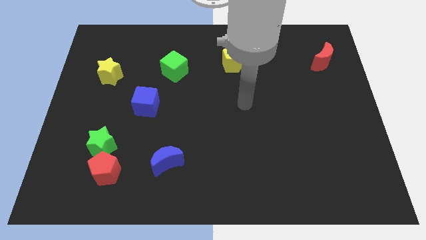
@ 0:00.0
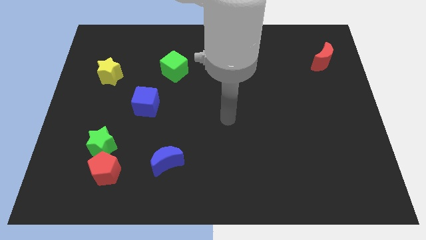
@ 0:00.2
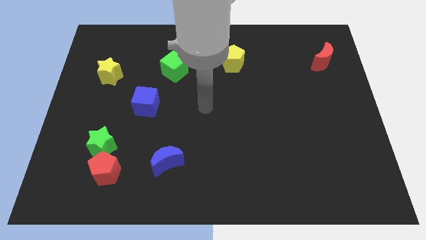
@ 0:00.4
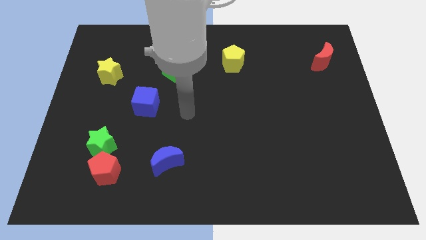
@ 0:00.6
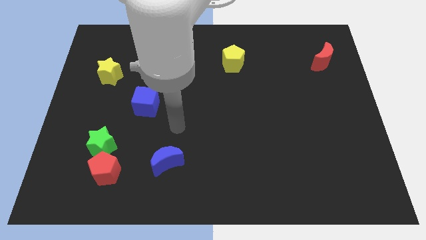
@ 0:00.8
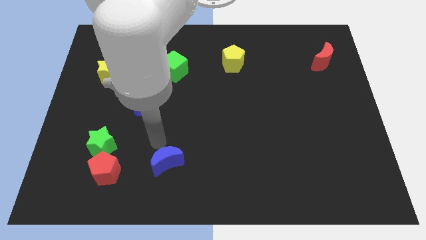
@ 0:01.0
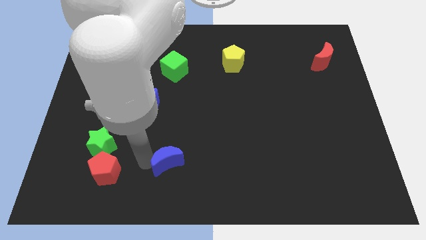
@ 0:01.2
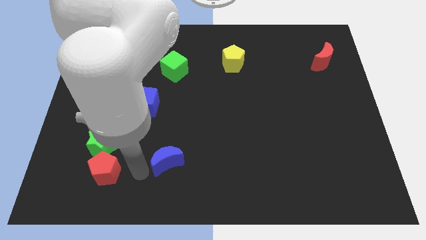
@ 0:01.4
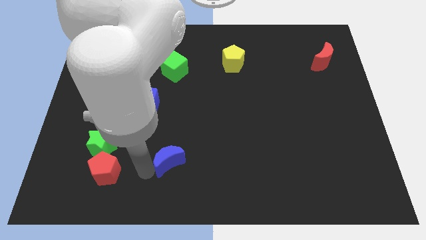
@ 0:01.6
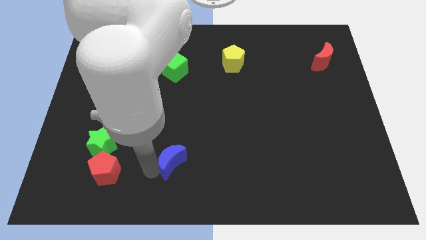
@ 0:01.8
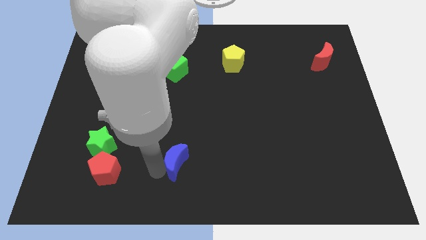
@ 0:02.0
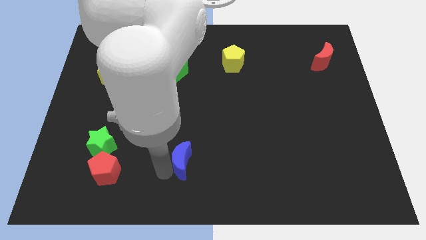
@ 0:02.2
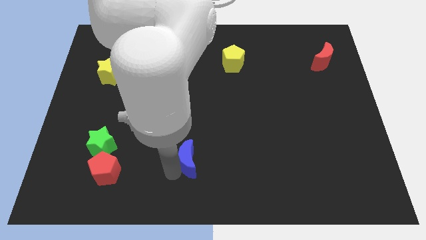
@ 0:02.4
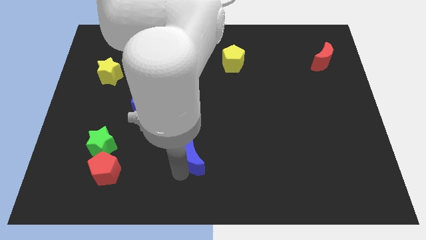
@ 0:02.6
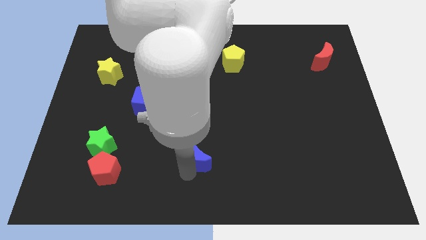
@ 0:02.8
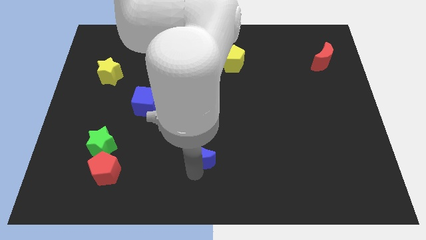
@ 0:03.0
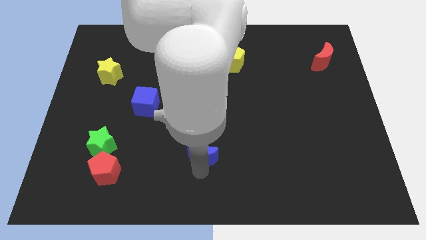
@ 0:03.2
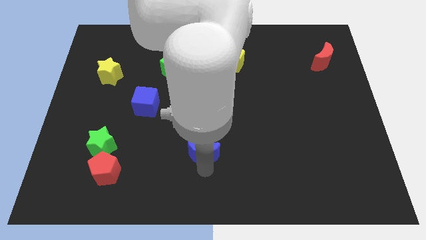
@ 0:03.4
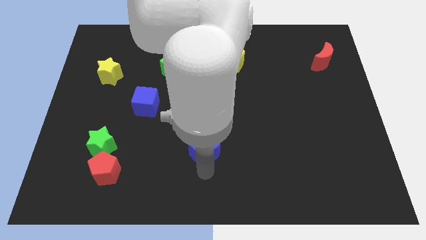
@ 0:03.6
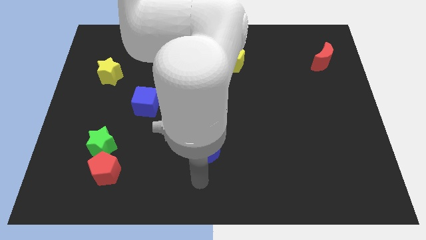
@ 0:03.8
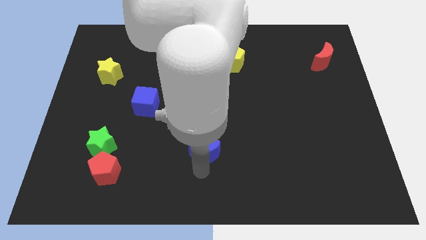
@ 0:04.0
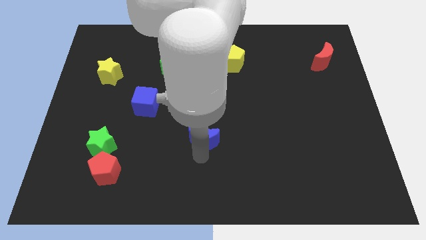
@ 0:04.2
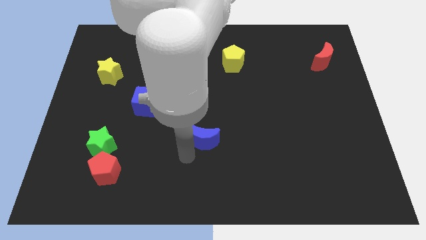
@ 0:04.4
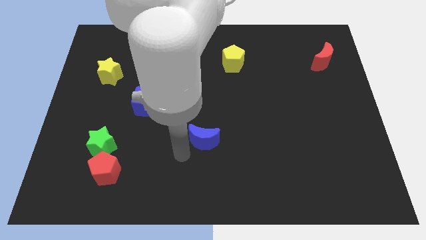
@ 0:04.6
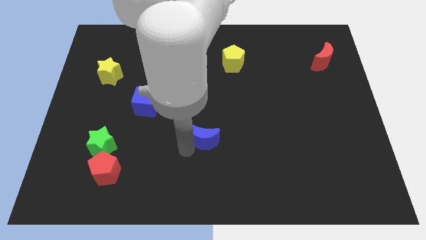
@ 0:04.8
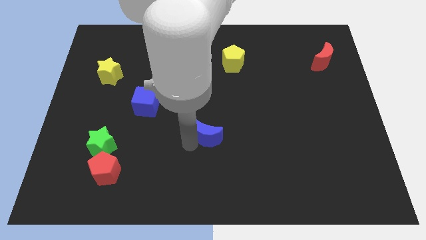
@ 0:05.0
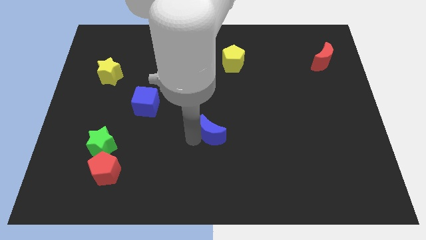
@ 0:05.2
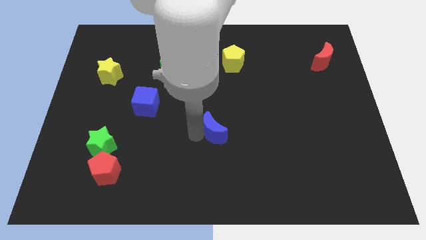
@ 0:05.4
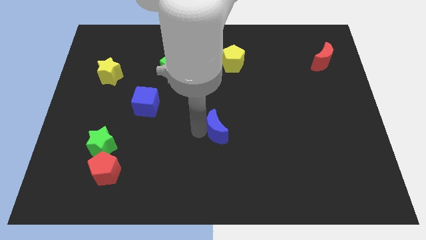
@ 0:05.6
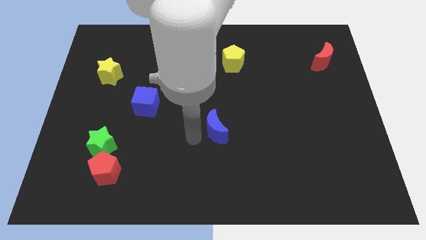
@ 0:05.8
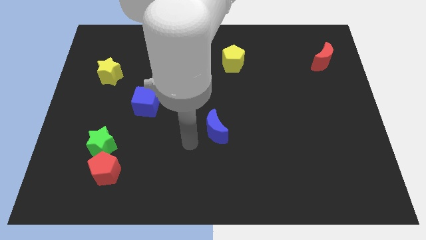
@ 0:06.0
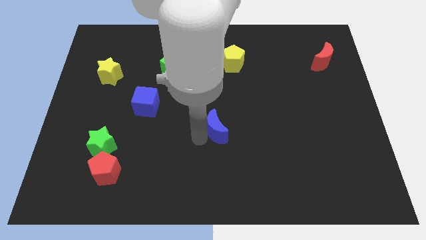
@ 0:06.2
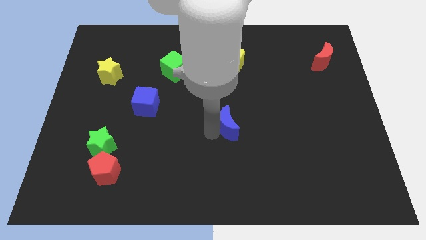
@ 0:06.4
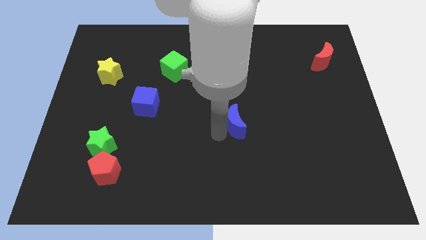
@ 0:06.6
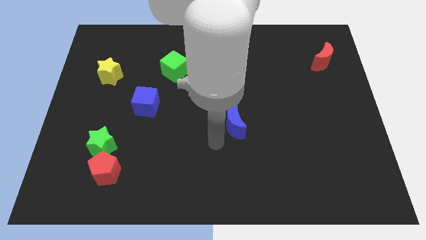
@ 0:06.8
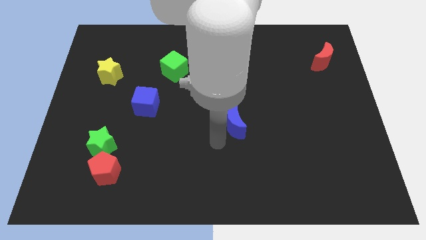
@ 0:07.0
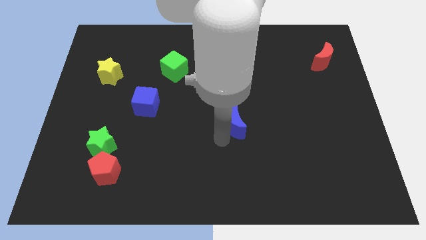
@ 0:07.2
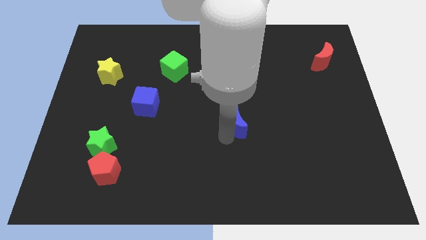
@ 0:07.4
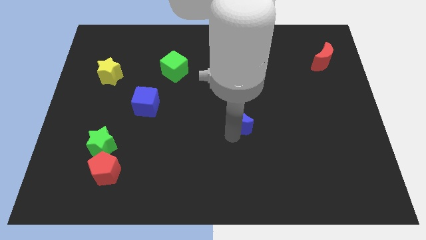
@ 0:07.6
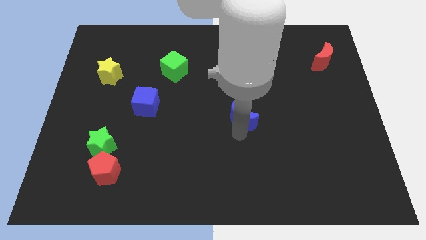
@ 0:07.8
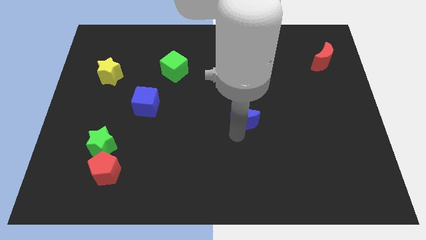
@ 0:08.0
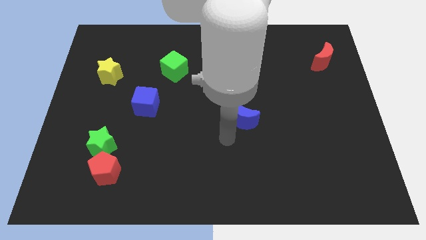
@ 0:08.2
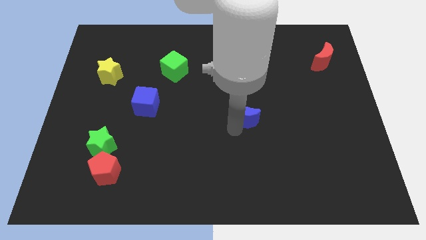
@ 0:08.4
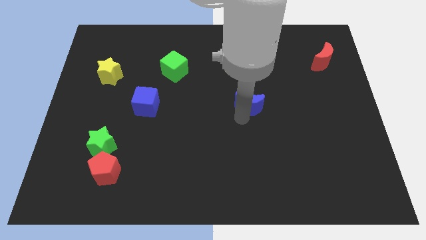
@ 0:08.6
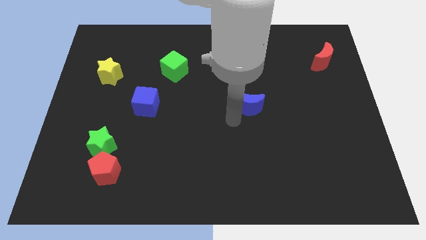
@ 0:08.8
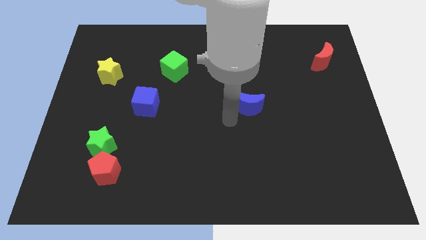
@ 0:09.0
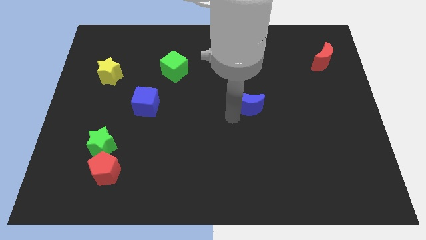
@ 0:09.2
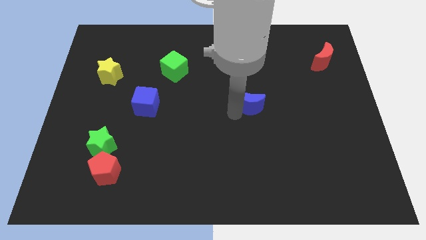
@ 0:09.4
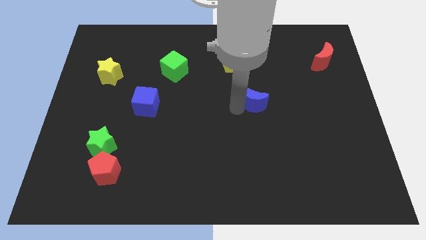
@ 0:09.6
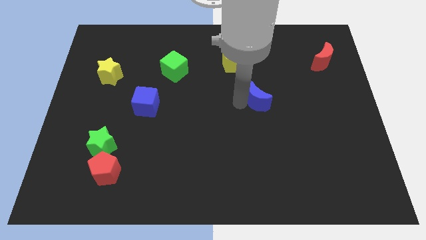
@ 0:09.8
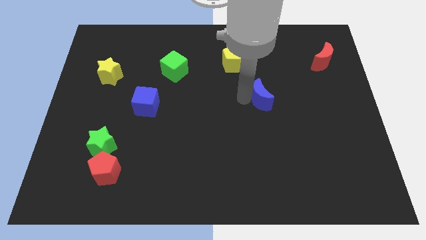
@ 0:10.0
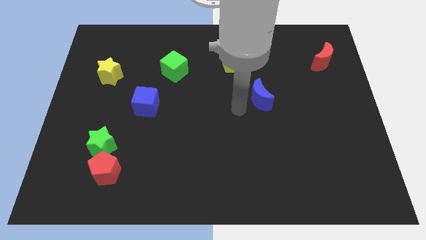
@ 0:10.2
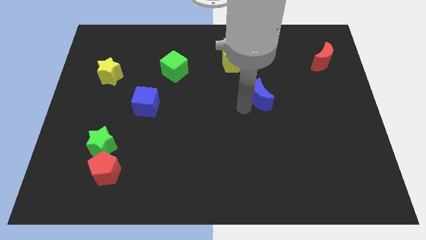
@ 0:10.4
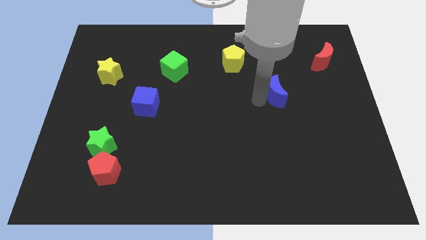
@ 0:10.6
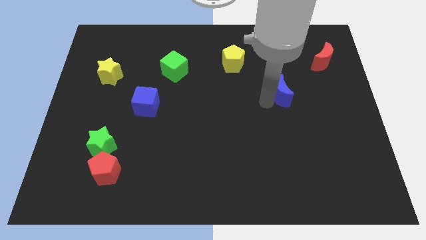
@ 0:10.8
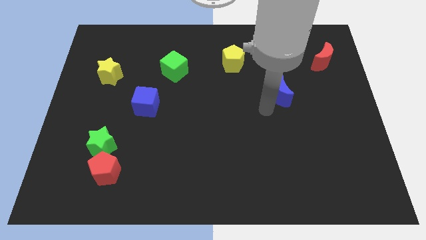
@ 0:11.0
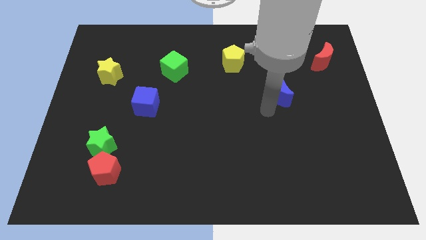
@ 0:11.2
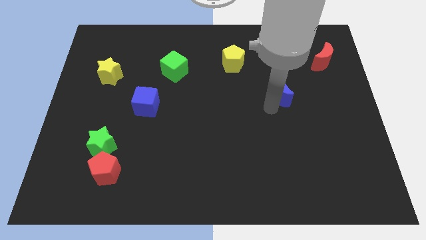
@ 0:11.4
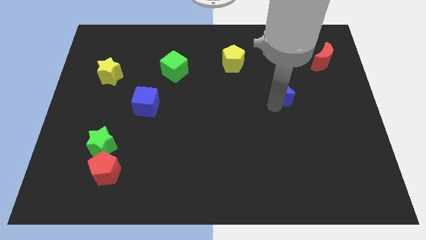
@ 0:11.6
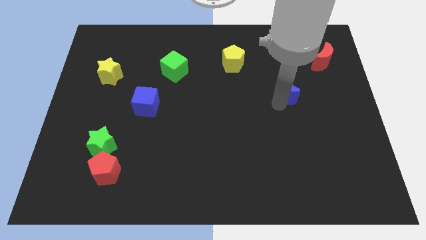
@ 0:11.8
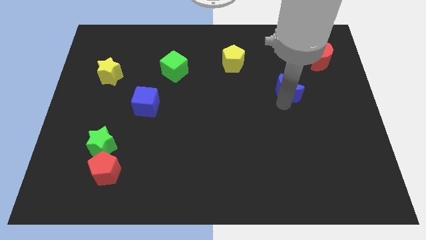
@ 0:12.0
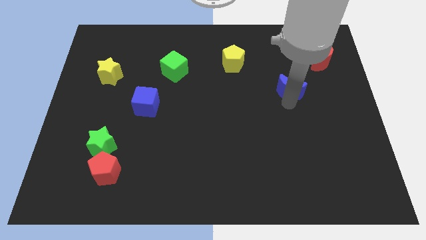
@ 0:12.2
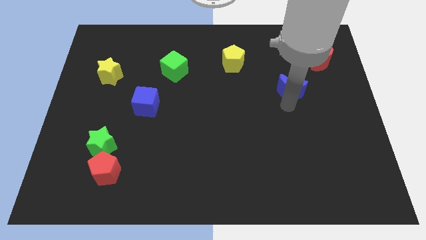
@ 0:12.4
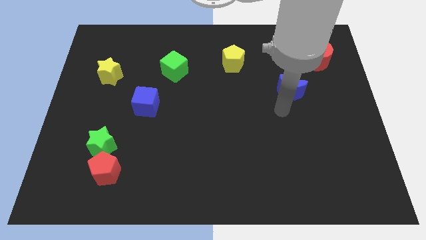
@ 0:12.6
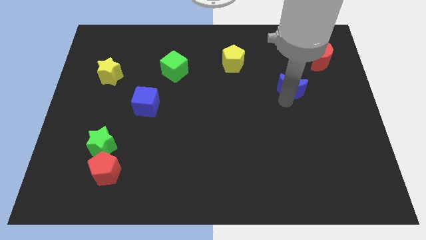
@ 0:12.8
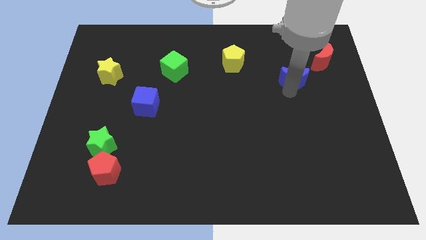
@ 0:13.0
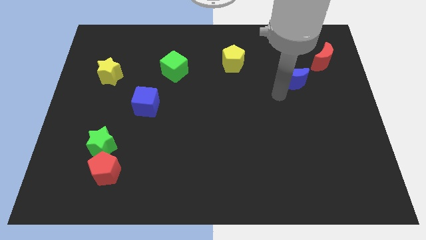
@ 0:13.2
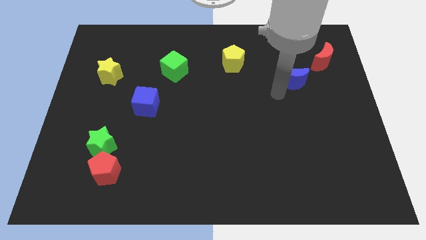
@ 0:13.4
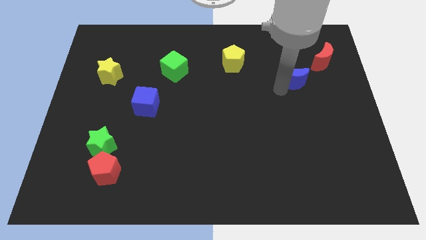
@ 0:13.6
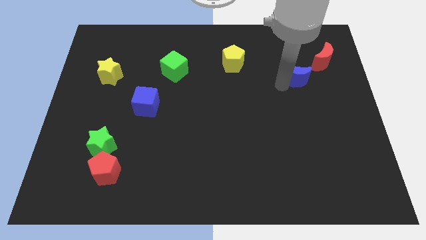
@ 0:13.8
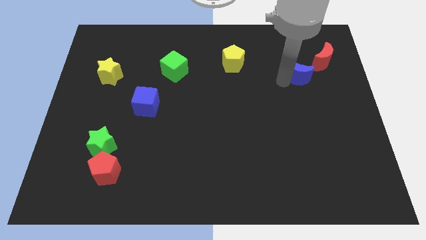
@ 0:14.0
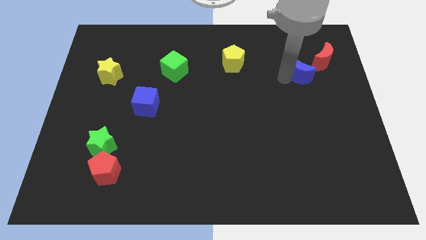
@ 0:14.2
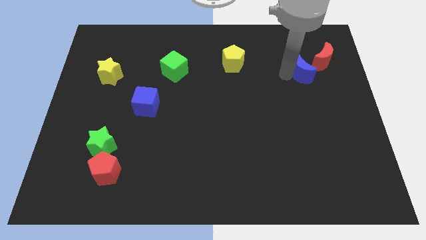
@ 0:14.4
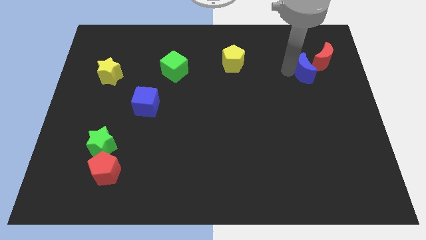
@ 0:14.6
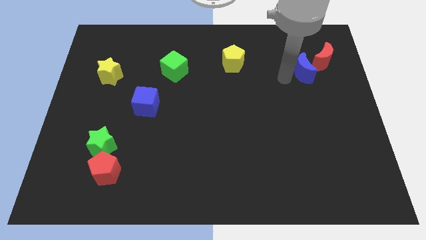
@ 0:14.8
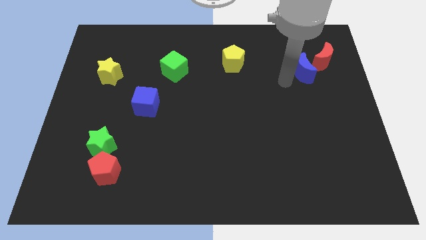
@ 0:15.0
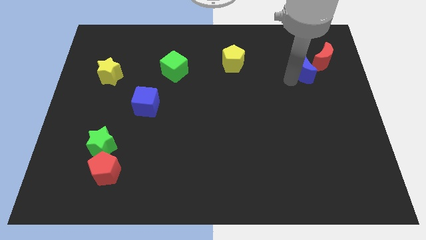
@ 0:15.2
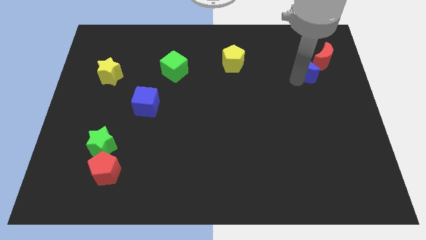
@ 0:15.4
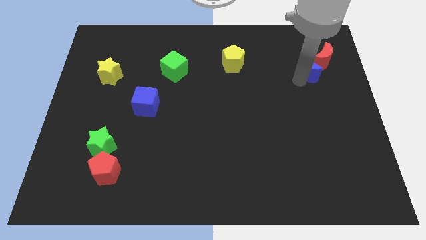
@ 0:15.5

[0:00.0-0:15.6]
put the blue moon towards the red moon

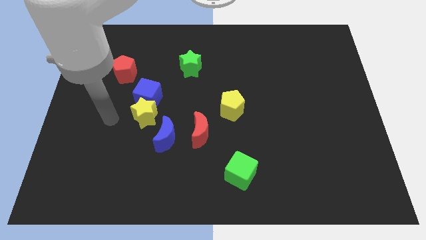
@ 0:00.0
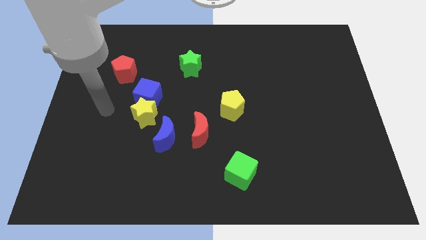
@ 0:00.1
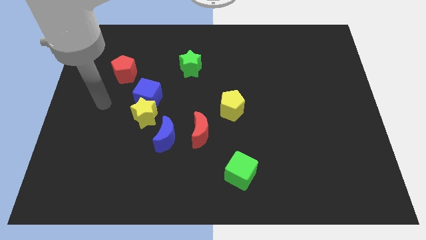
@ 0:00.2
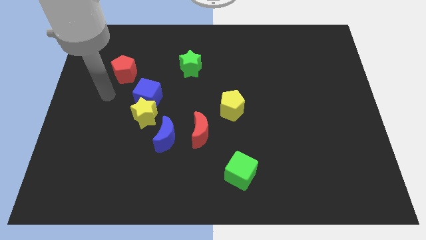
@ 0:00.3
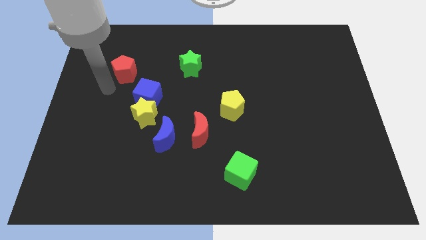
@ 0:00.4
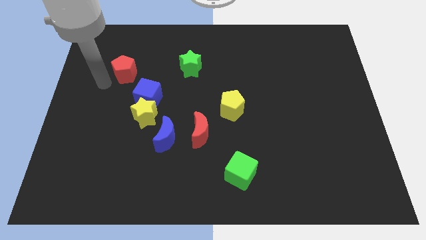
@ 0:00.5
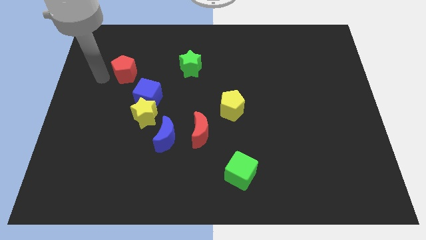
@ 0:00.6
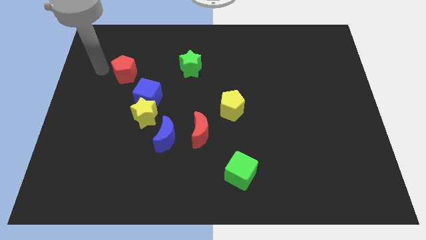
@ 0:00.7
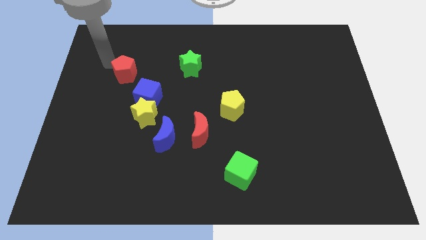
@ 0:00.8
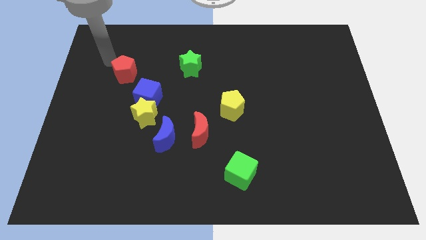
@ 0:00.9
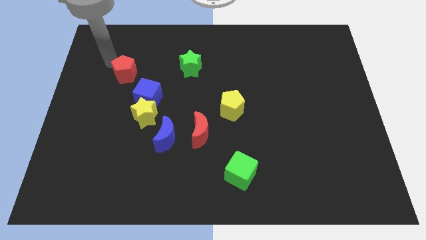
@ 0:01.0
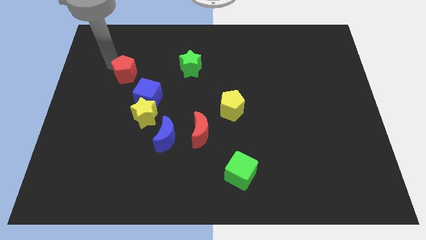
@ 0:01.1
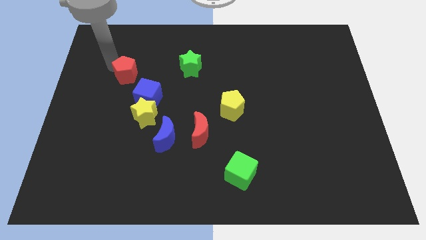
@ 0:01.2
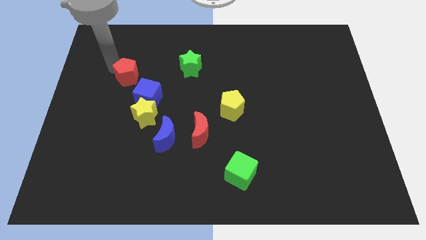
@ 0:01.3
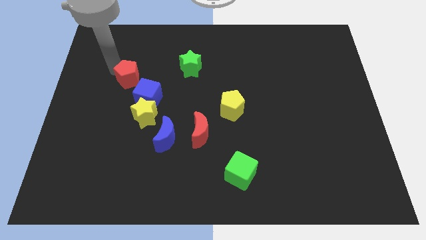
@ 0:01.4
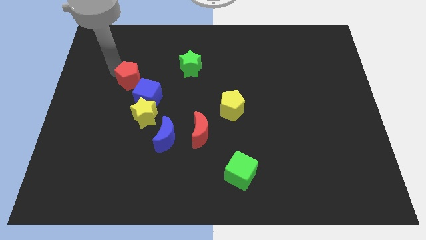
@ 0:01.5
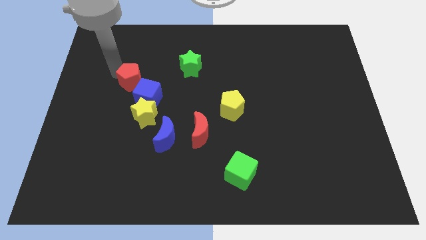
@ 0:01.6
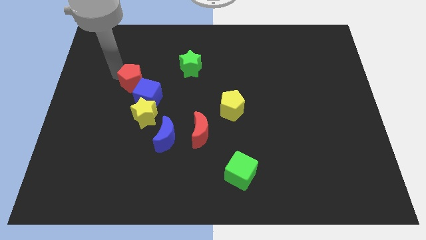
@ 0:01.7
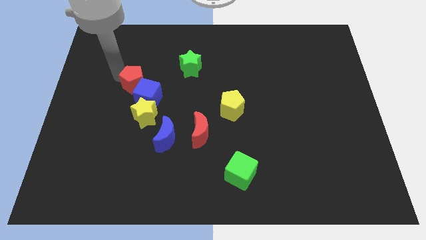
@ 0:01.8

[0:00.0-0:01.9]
push the red pentagon to the blue cube
